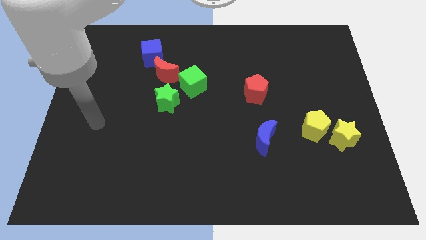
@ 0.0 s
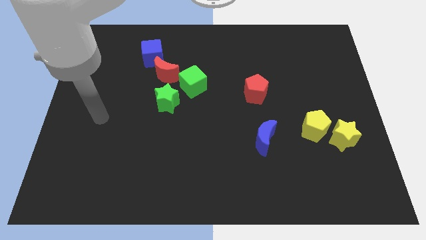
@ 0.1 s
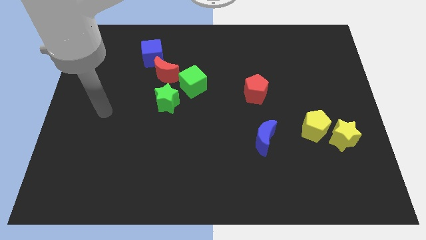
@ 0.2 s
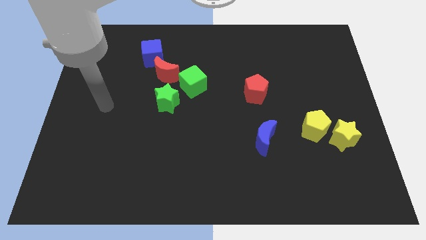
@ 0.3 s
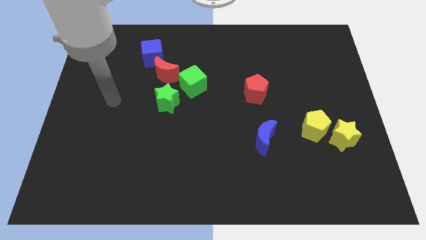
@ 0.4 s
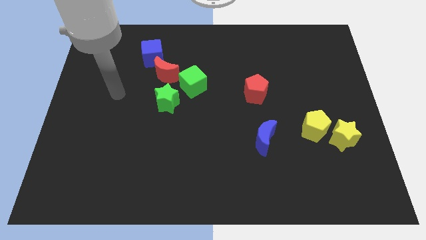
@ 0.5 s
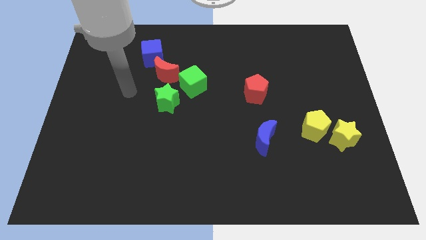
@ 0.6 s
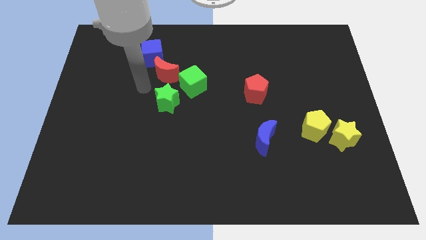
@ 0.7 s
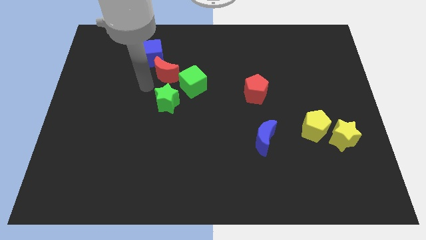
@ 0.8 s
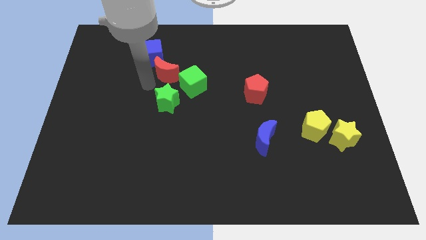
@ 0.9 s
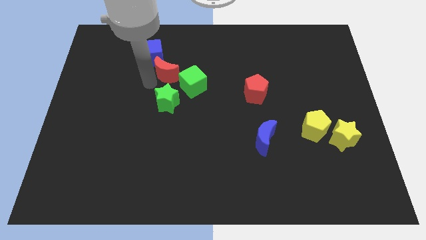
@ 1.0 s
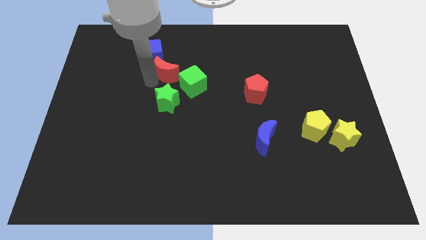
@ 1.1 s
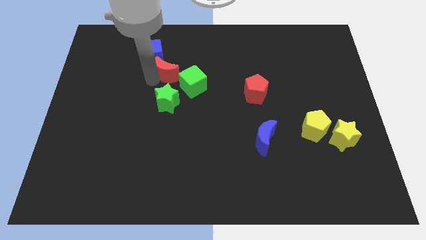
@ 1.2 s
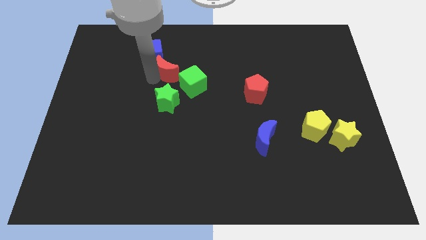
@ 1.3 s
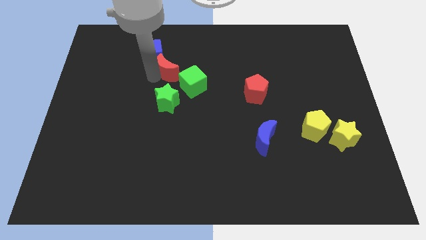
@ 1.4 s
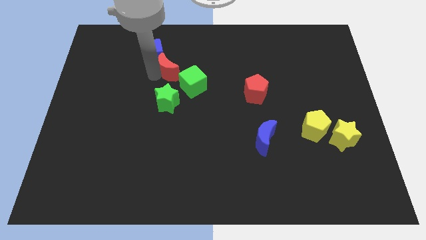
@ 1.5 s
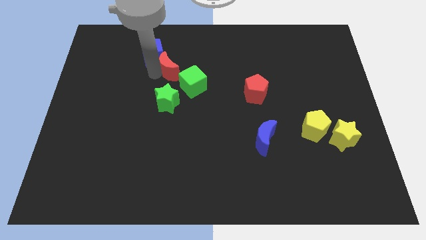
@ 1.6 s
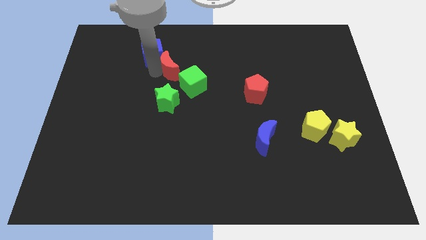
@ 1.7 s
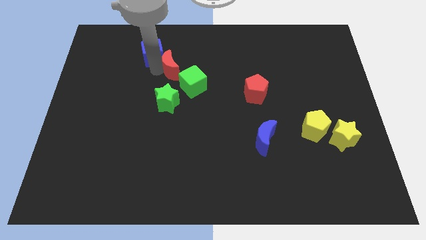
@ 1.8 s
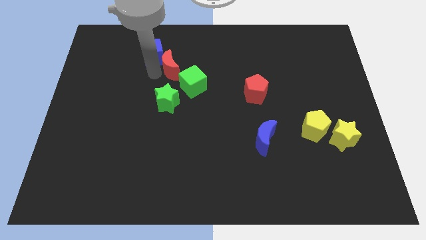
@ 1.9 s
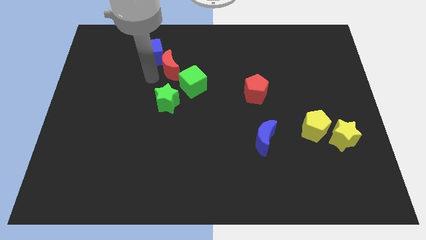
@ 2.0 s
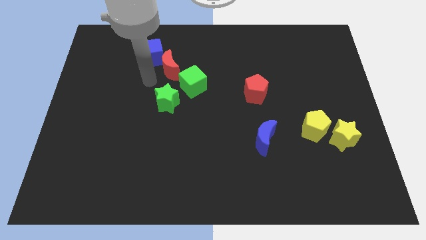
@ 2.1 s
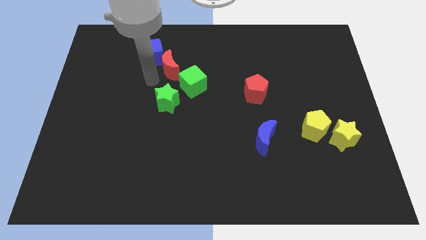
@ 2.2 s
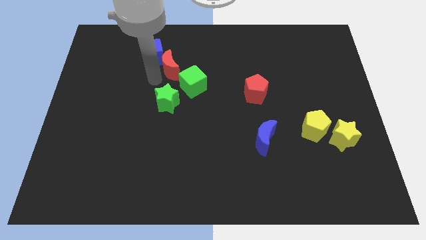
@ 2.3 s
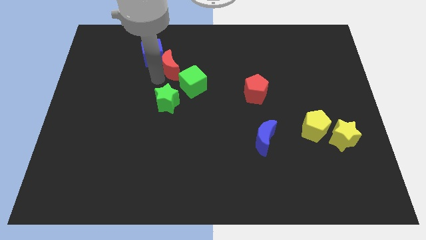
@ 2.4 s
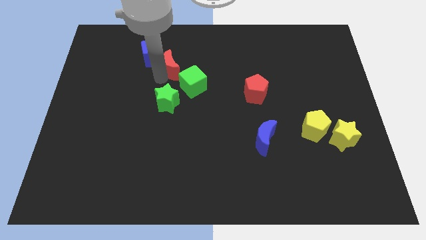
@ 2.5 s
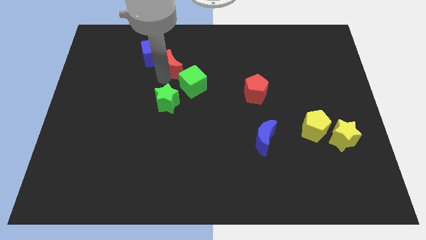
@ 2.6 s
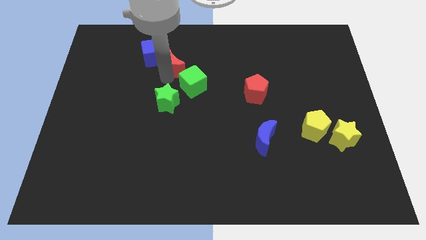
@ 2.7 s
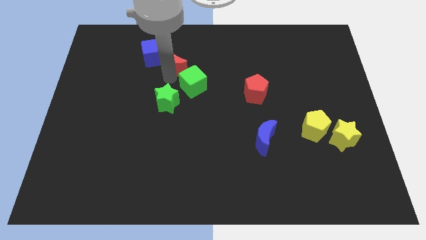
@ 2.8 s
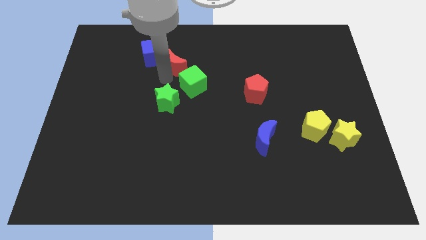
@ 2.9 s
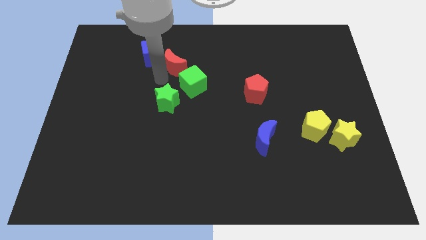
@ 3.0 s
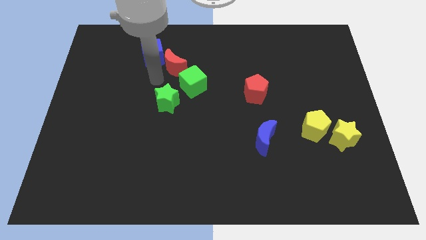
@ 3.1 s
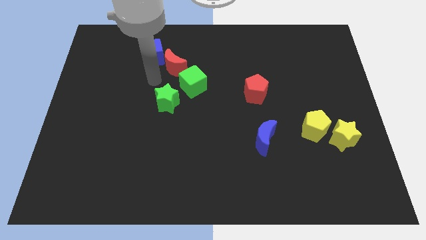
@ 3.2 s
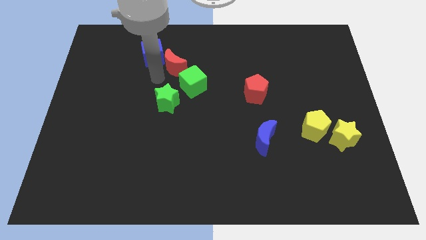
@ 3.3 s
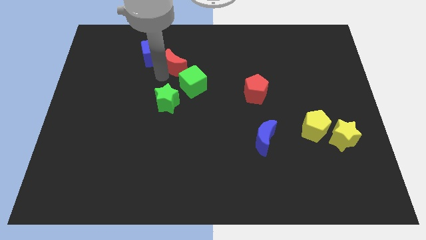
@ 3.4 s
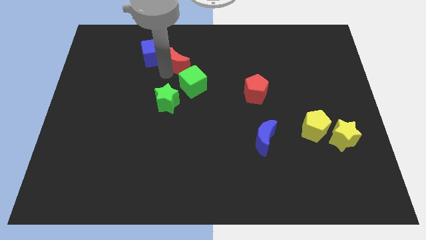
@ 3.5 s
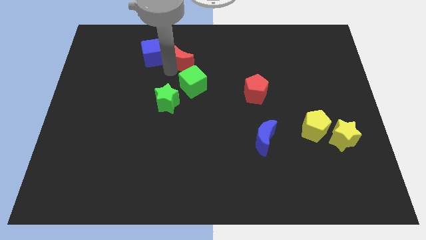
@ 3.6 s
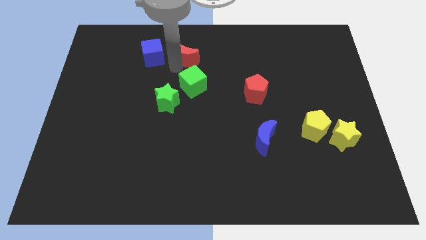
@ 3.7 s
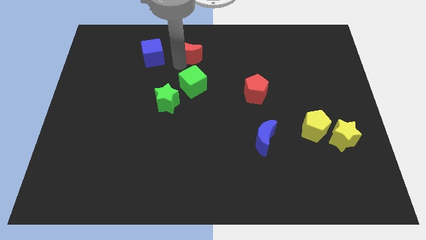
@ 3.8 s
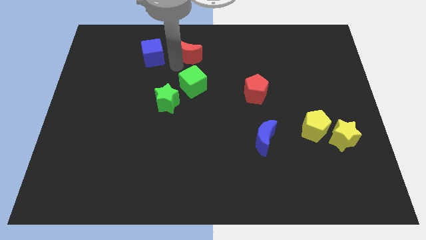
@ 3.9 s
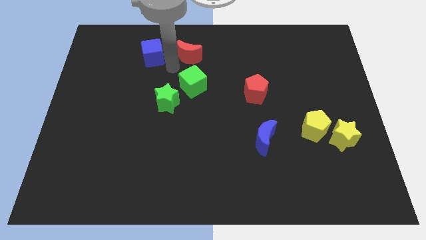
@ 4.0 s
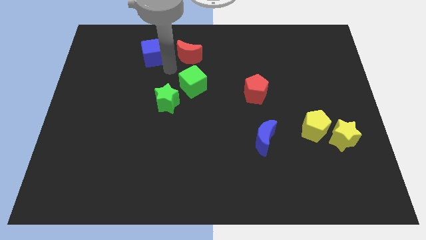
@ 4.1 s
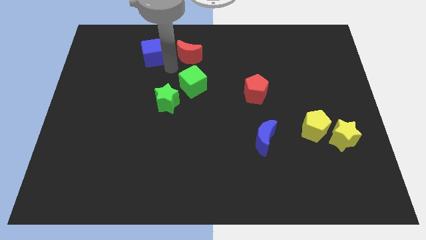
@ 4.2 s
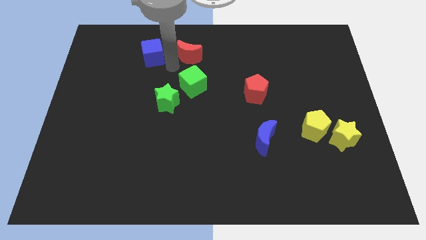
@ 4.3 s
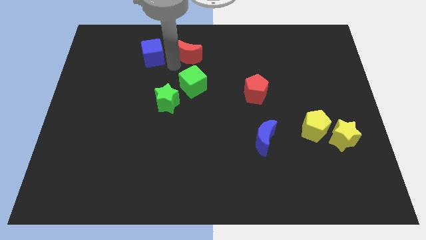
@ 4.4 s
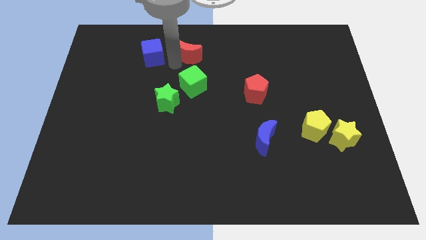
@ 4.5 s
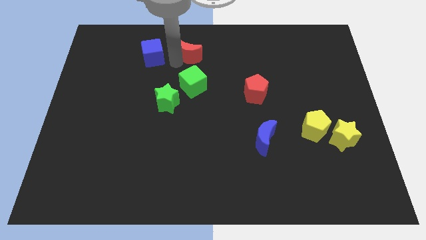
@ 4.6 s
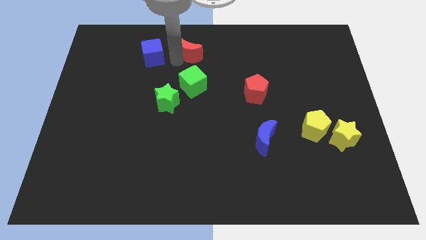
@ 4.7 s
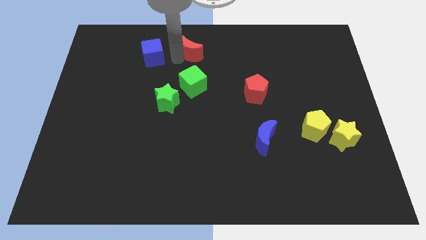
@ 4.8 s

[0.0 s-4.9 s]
push the red moon to the top side

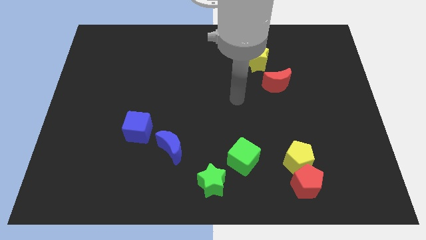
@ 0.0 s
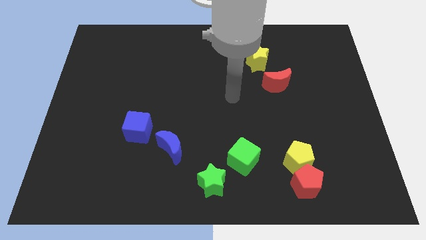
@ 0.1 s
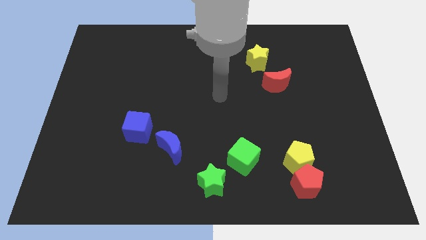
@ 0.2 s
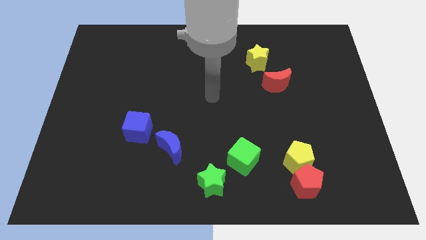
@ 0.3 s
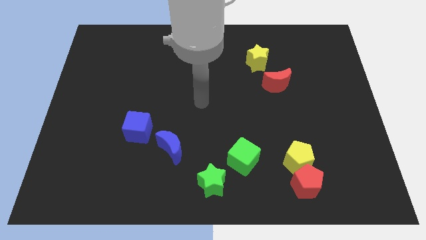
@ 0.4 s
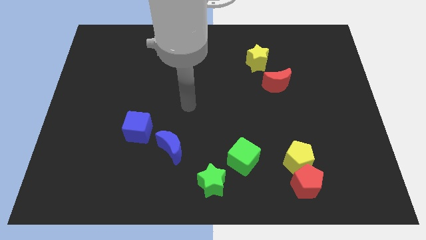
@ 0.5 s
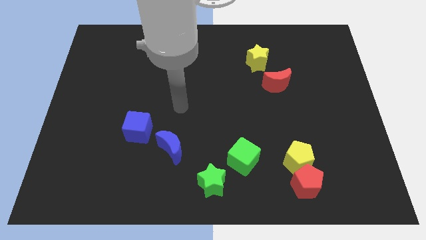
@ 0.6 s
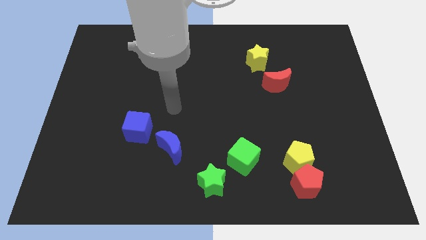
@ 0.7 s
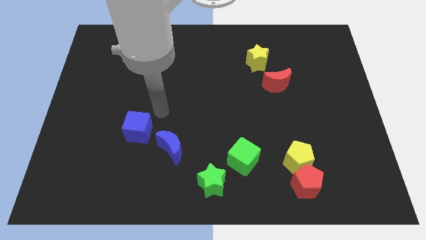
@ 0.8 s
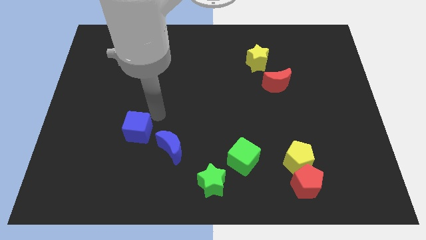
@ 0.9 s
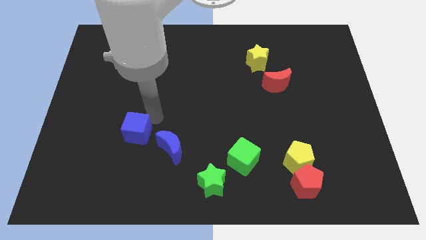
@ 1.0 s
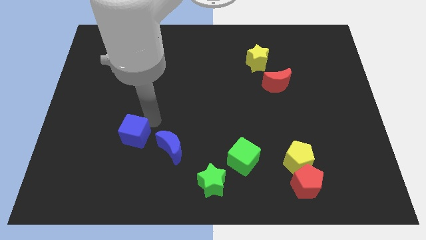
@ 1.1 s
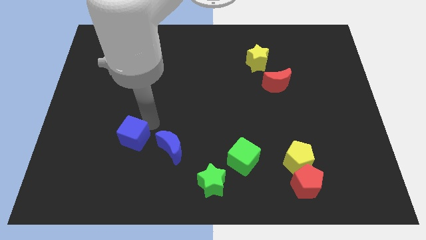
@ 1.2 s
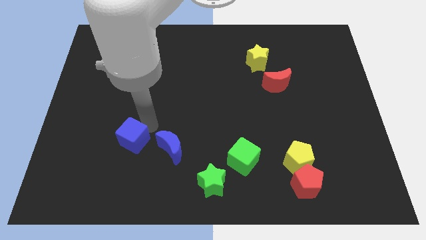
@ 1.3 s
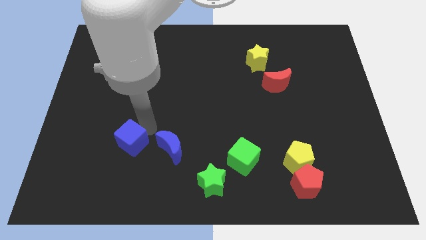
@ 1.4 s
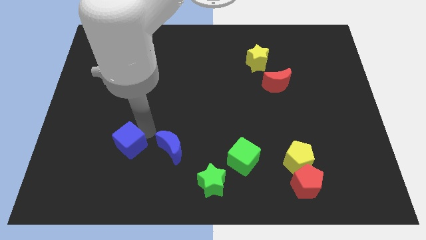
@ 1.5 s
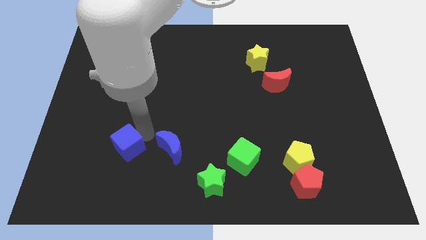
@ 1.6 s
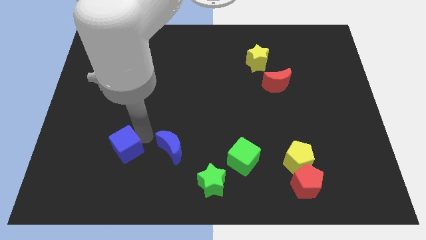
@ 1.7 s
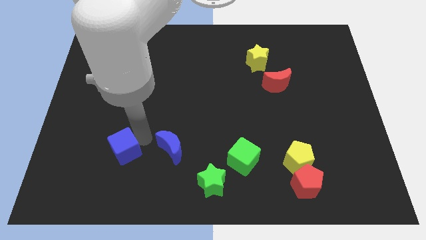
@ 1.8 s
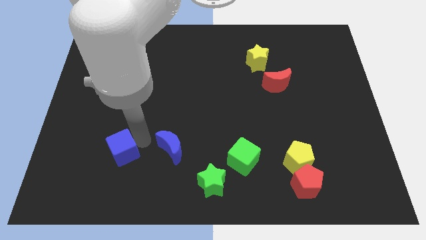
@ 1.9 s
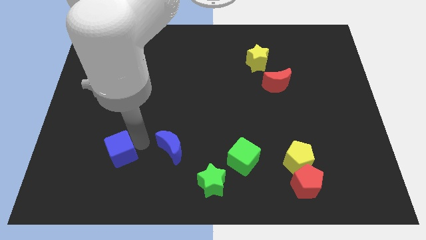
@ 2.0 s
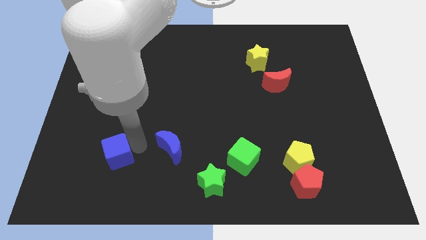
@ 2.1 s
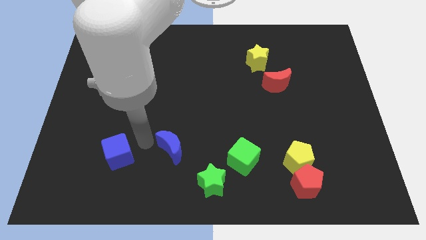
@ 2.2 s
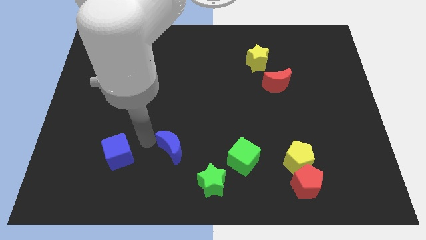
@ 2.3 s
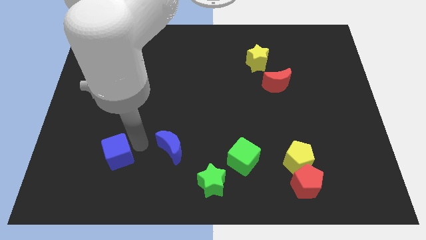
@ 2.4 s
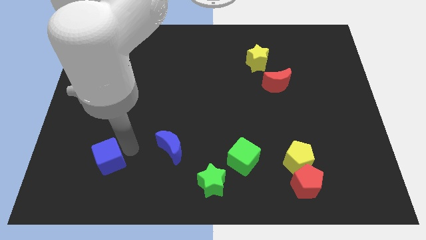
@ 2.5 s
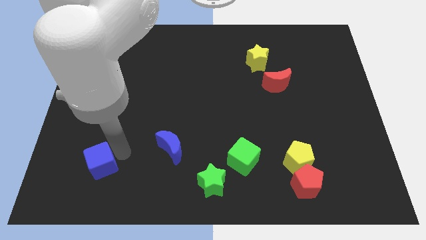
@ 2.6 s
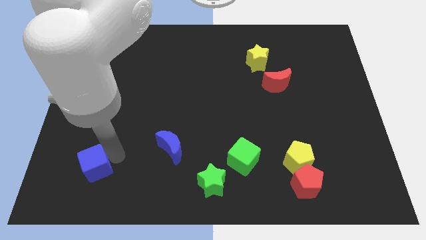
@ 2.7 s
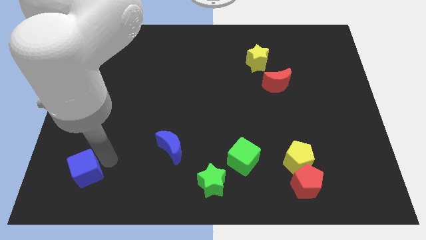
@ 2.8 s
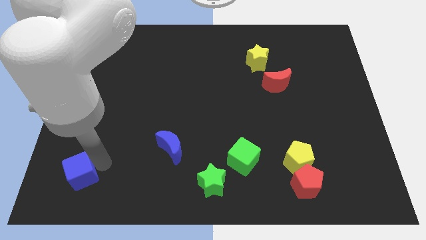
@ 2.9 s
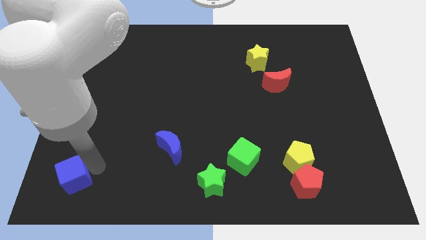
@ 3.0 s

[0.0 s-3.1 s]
slide the blue cube to the lower left corner
